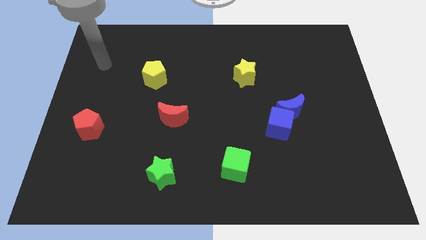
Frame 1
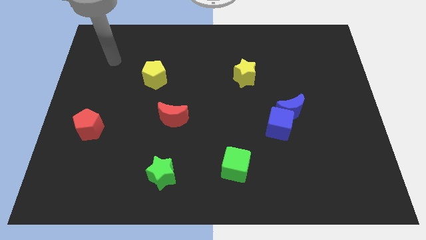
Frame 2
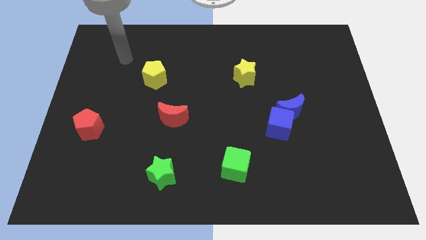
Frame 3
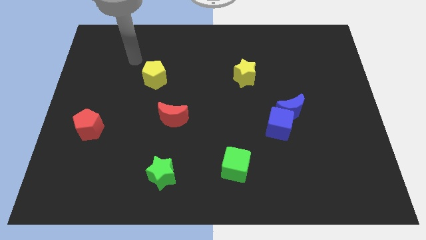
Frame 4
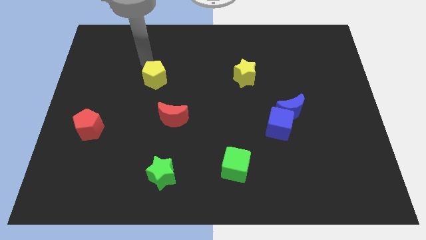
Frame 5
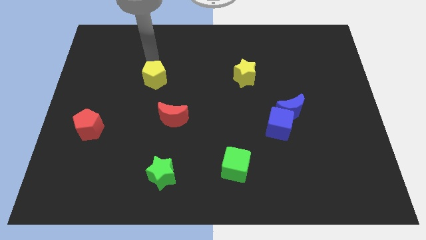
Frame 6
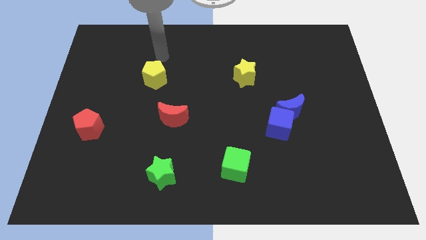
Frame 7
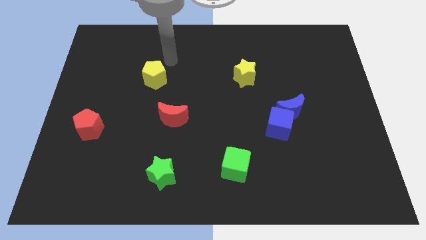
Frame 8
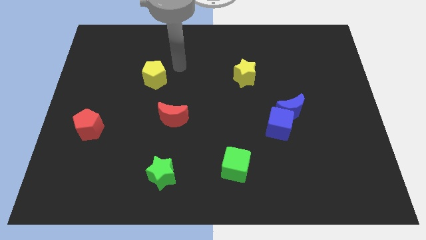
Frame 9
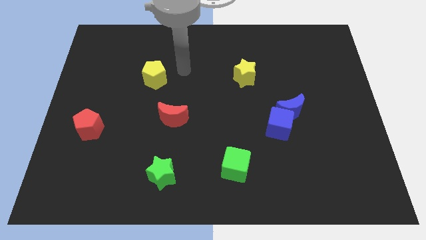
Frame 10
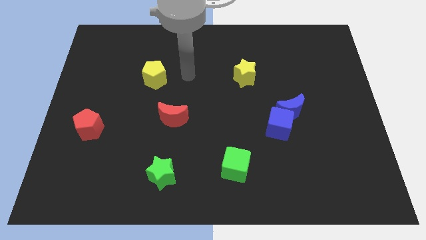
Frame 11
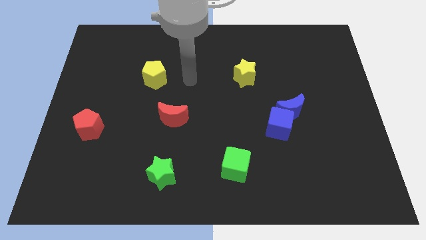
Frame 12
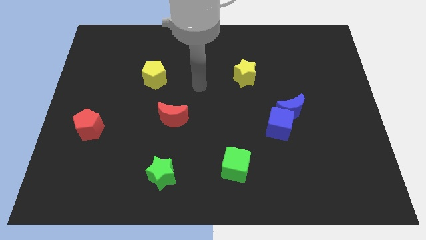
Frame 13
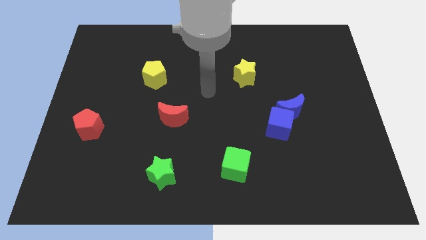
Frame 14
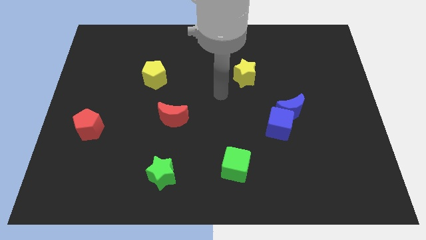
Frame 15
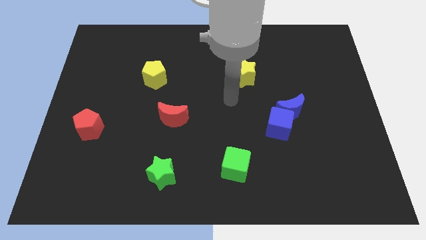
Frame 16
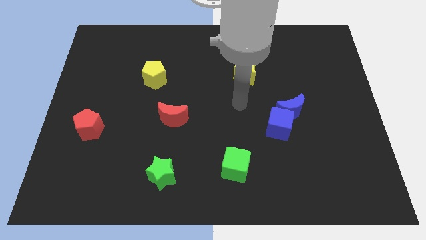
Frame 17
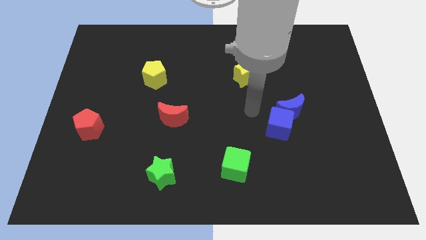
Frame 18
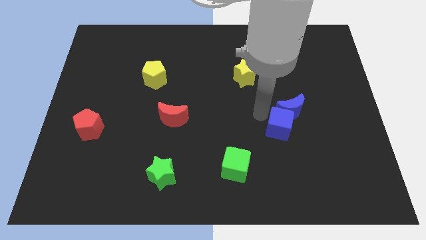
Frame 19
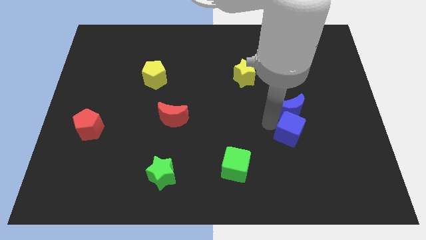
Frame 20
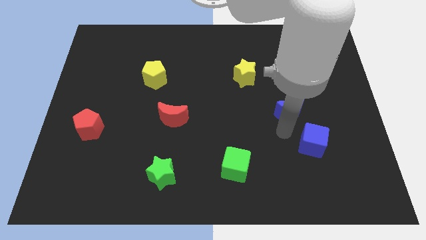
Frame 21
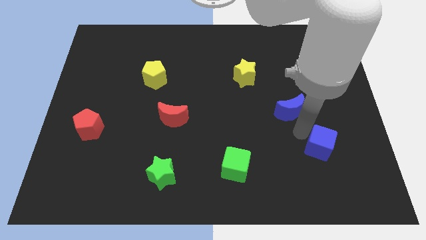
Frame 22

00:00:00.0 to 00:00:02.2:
move the blue moon away from the blue cube

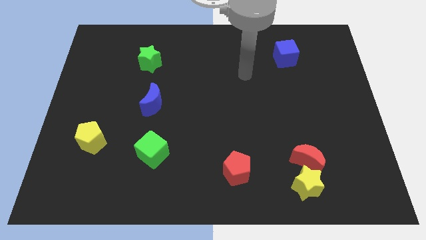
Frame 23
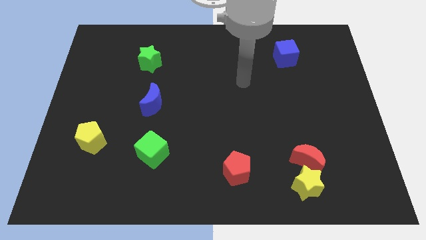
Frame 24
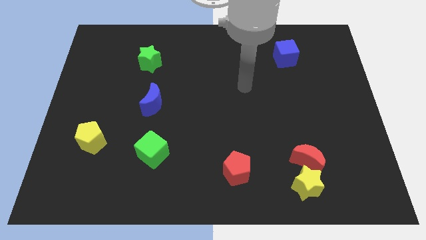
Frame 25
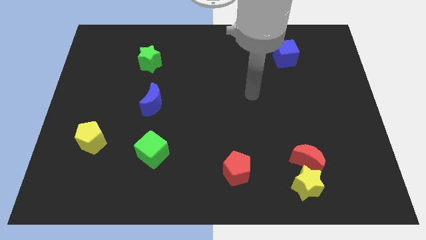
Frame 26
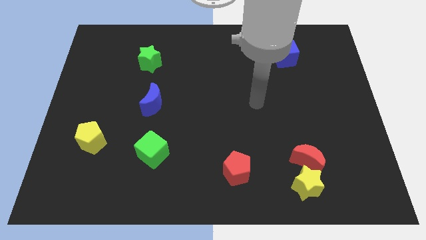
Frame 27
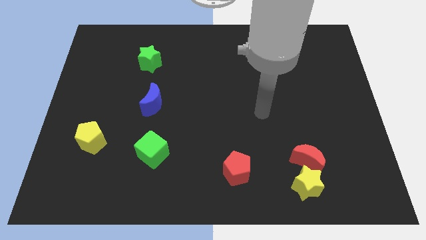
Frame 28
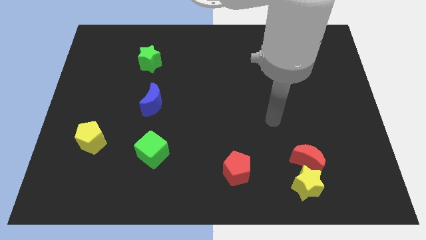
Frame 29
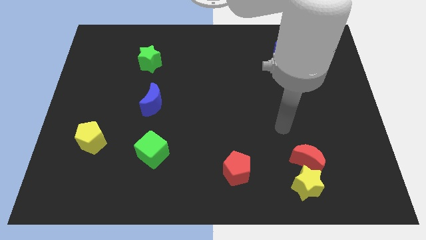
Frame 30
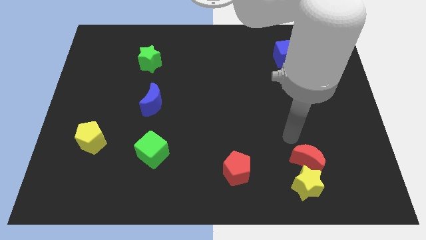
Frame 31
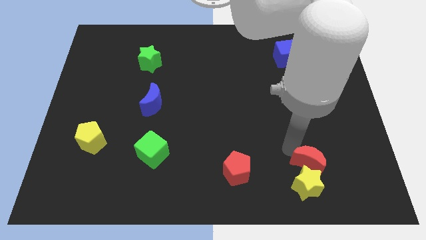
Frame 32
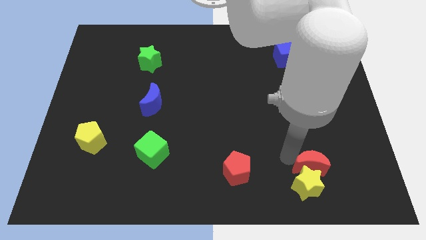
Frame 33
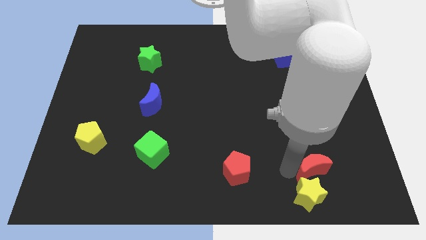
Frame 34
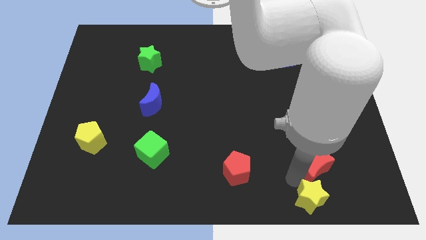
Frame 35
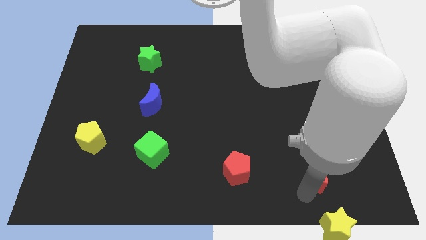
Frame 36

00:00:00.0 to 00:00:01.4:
pull the red moon apart from the yellow star

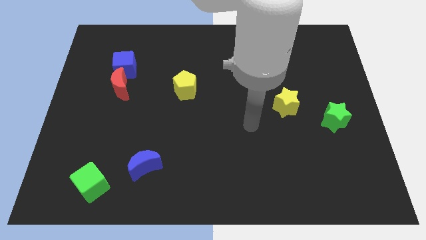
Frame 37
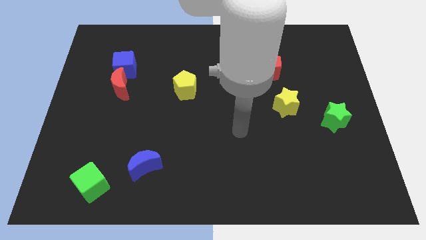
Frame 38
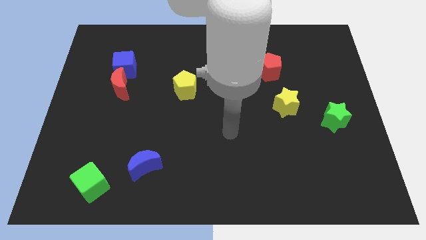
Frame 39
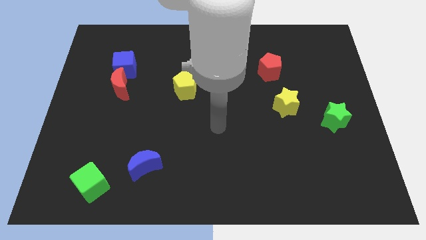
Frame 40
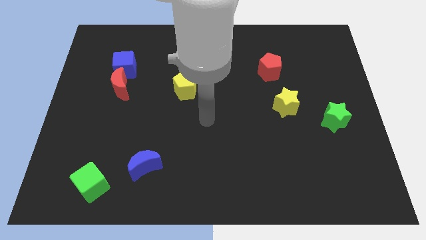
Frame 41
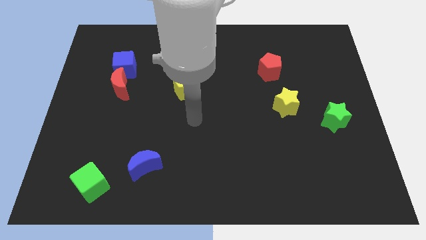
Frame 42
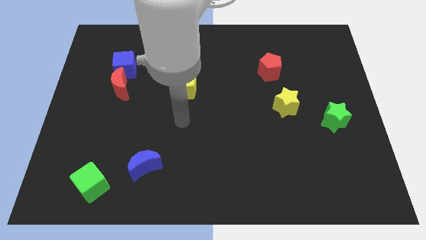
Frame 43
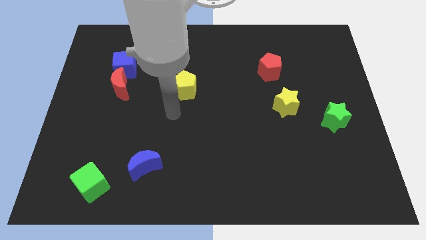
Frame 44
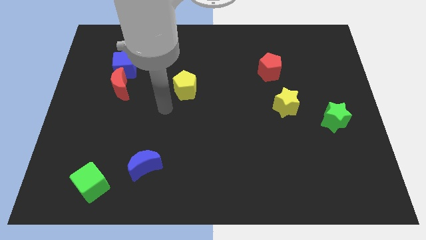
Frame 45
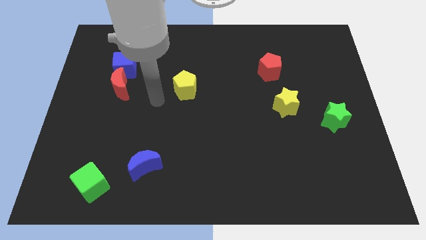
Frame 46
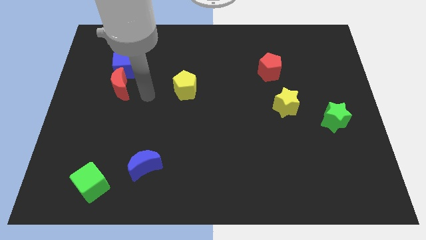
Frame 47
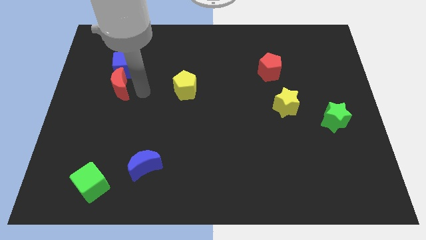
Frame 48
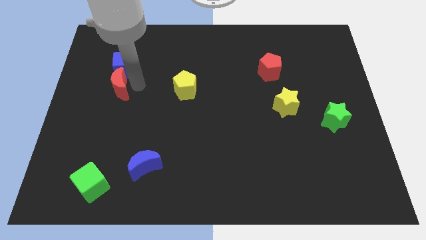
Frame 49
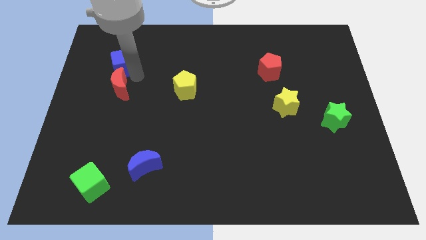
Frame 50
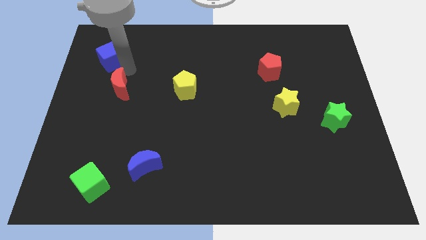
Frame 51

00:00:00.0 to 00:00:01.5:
separate the red moon from the blue cube

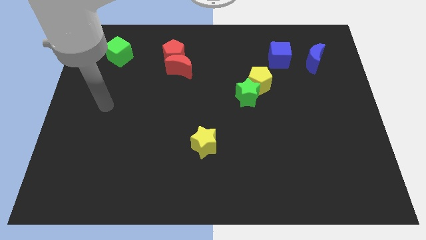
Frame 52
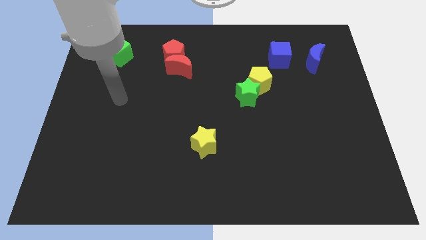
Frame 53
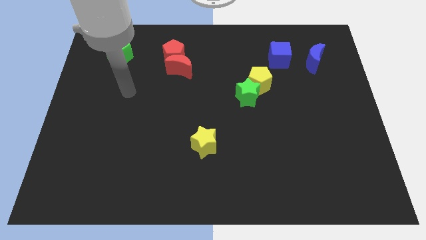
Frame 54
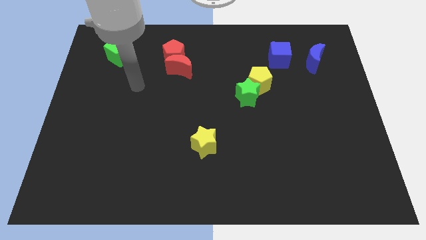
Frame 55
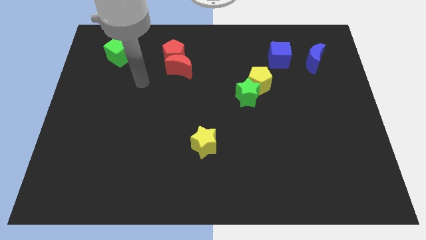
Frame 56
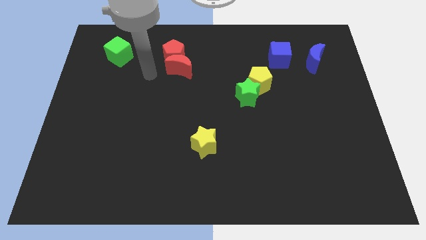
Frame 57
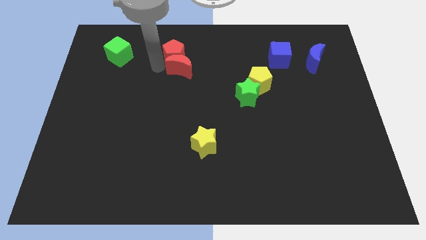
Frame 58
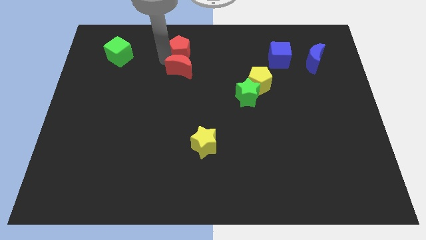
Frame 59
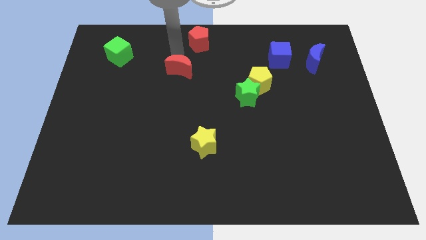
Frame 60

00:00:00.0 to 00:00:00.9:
pull the red moon apart from the red pentagon

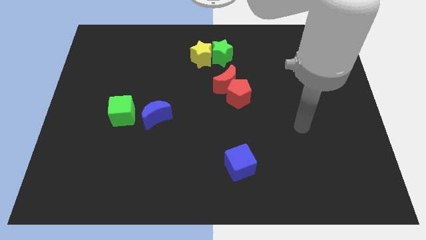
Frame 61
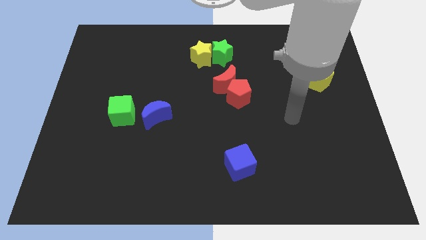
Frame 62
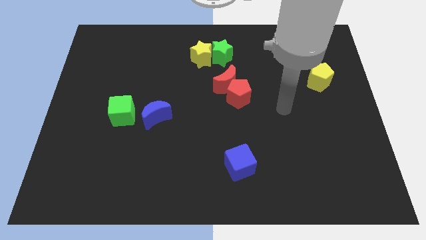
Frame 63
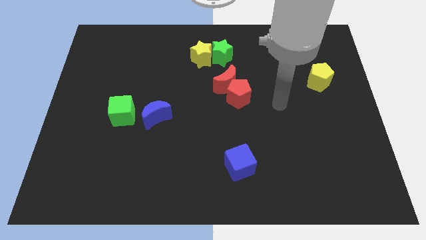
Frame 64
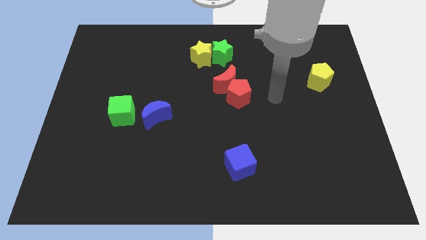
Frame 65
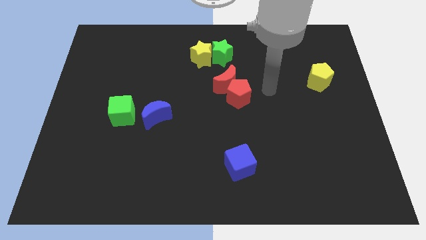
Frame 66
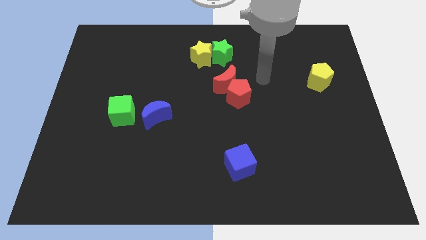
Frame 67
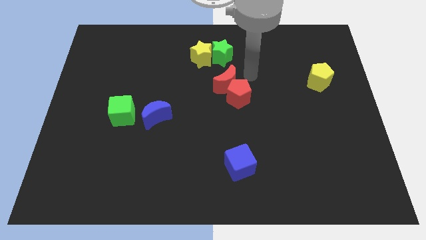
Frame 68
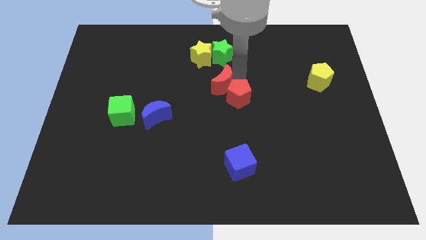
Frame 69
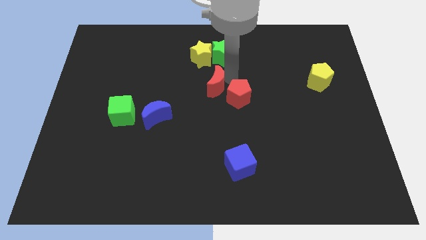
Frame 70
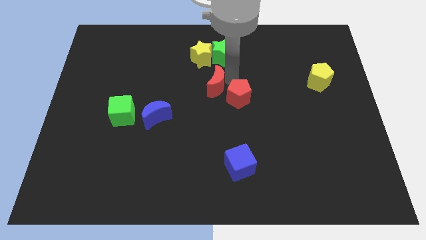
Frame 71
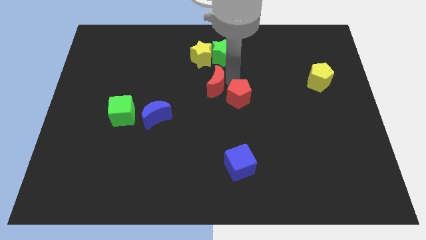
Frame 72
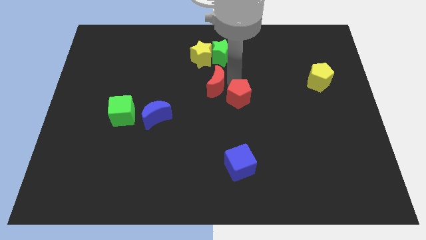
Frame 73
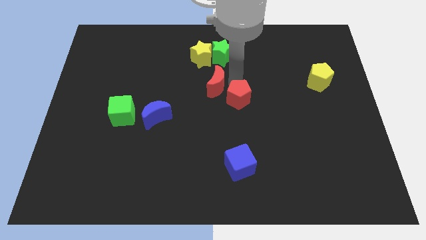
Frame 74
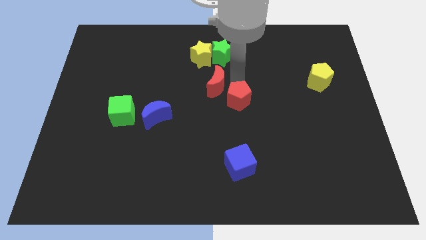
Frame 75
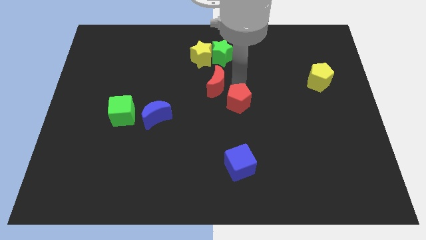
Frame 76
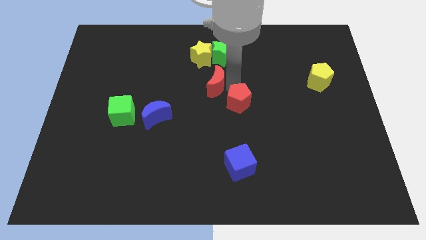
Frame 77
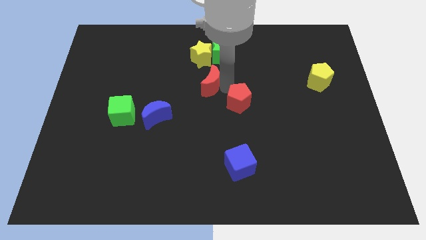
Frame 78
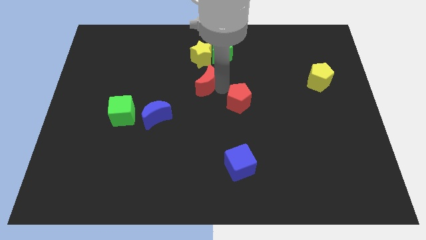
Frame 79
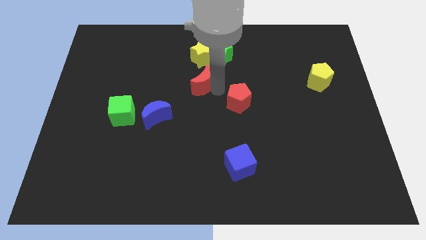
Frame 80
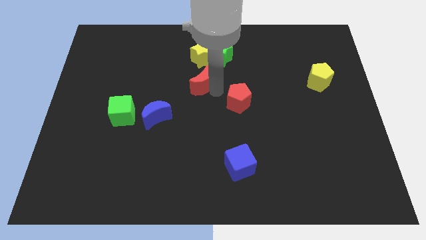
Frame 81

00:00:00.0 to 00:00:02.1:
move the red pentagon away from the red moon

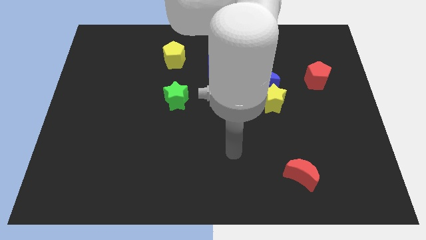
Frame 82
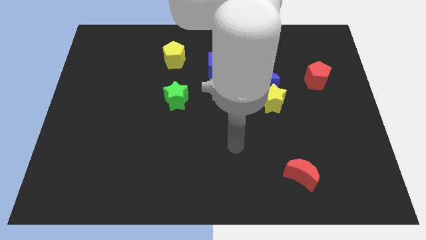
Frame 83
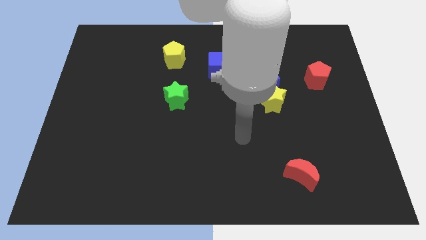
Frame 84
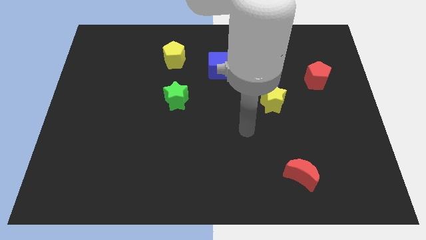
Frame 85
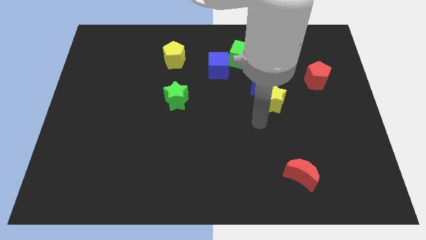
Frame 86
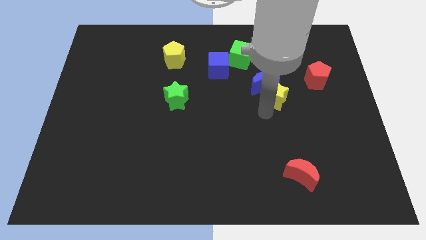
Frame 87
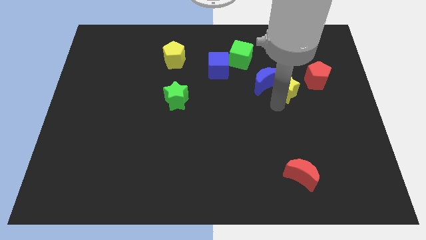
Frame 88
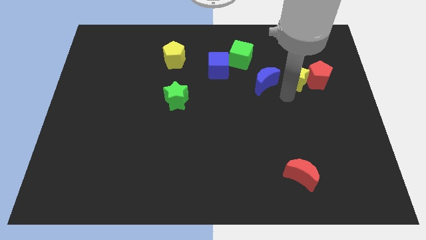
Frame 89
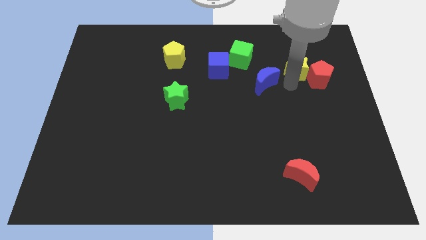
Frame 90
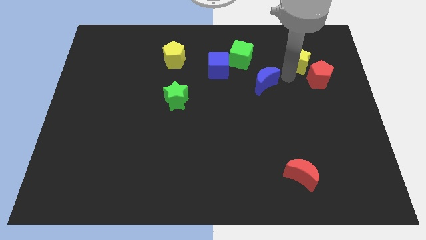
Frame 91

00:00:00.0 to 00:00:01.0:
move the blue moon away from the yellow star

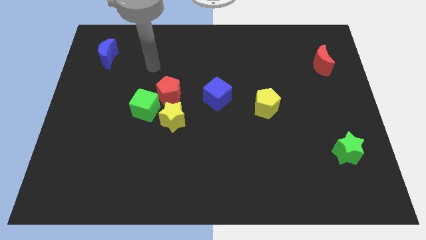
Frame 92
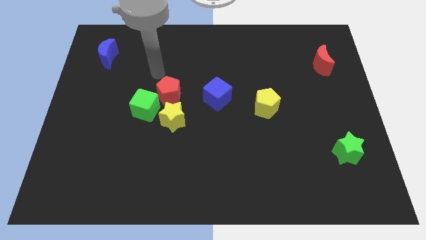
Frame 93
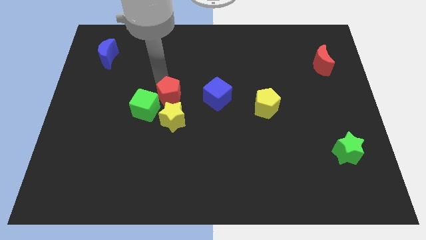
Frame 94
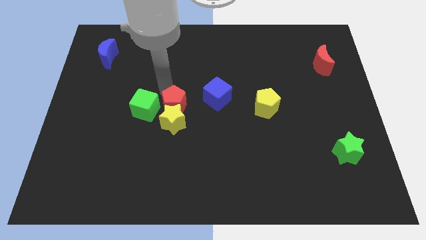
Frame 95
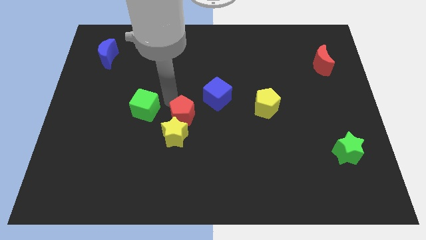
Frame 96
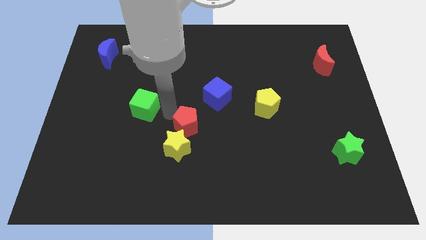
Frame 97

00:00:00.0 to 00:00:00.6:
separate the green cube from the red pentagon and yellow star
